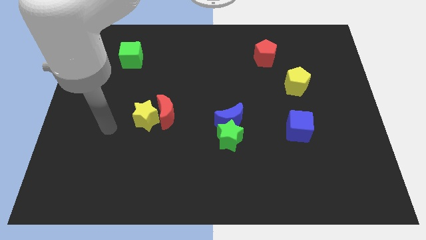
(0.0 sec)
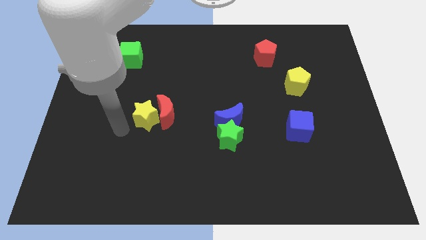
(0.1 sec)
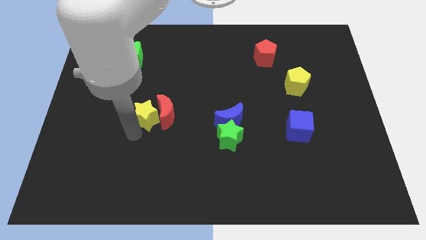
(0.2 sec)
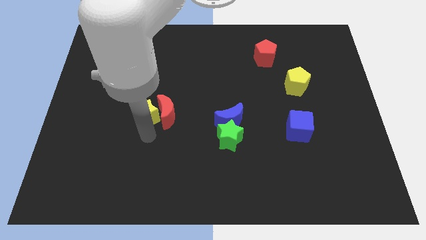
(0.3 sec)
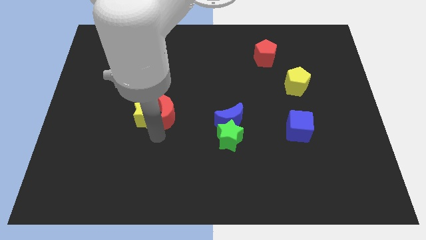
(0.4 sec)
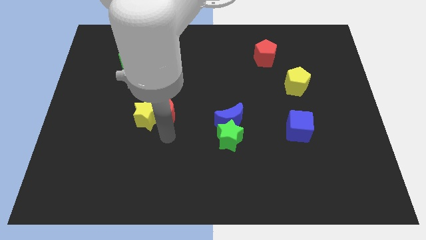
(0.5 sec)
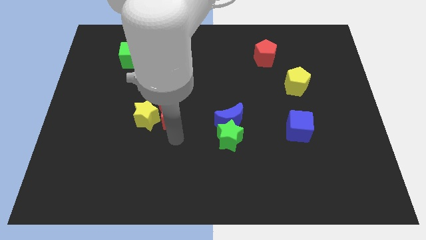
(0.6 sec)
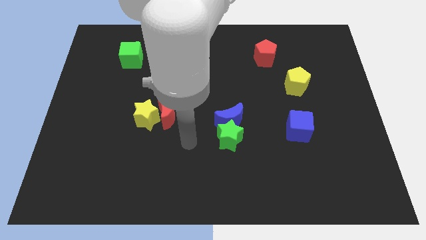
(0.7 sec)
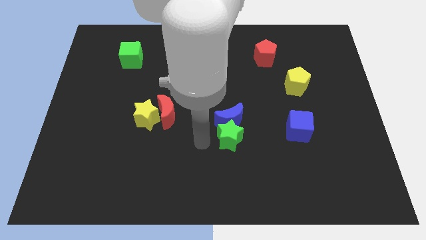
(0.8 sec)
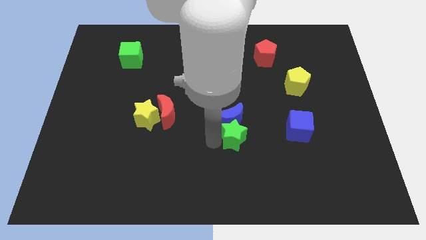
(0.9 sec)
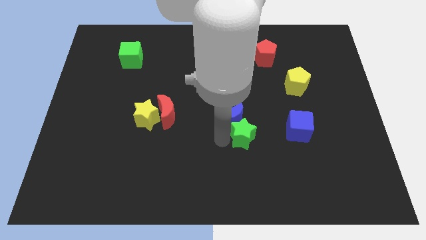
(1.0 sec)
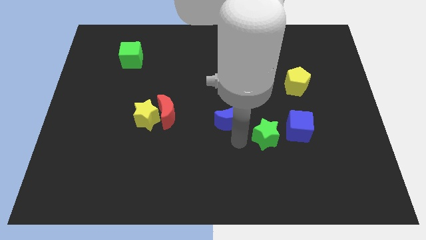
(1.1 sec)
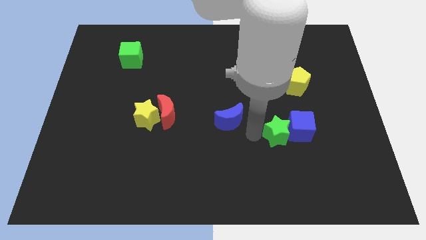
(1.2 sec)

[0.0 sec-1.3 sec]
separate the blue moon from the green star

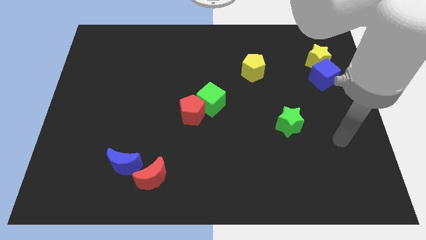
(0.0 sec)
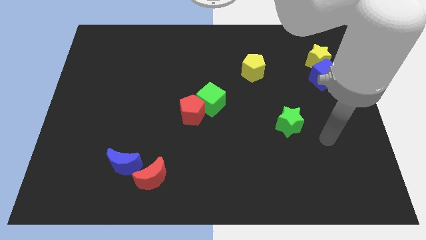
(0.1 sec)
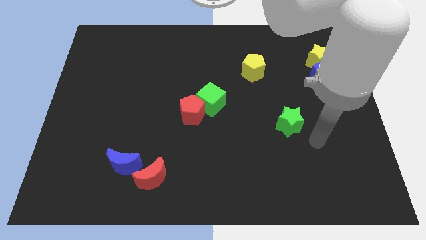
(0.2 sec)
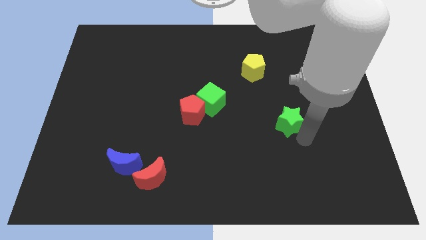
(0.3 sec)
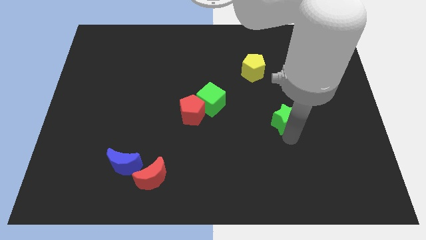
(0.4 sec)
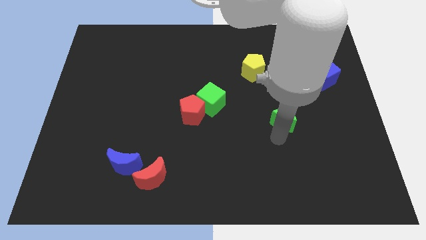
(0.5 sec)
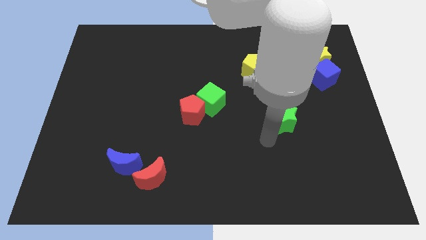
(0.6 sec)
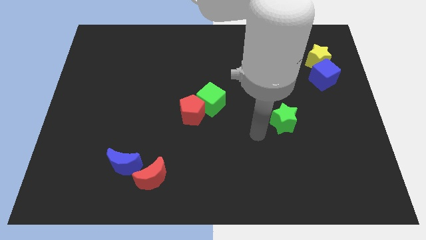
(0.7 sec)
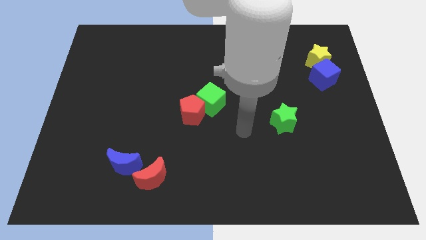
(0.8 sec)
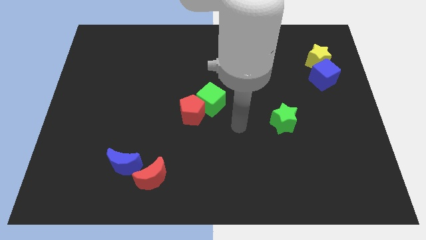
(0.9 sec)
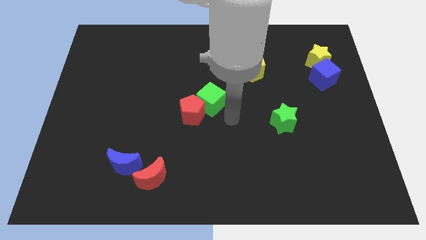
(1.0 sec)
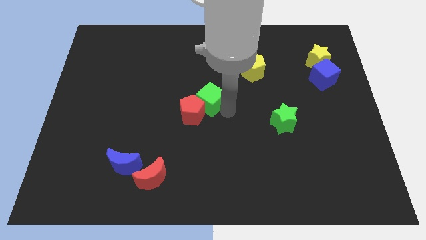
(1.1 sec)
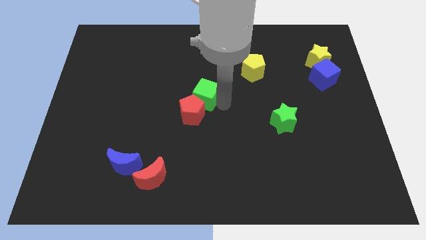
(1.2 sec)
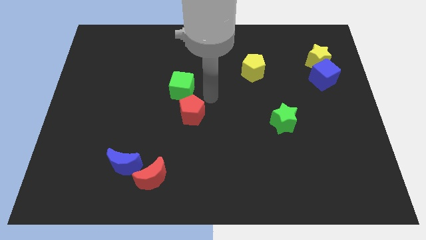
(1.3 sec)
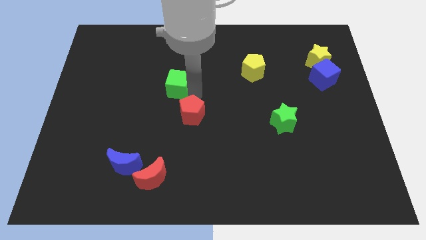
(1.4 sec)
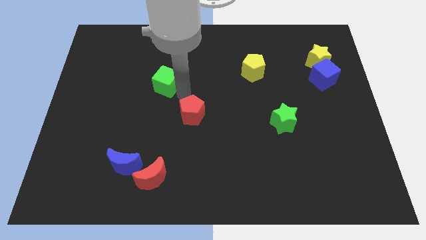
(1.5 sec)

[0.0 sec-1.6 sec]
pull the red pentagon apart from the green cube

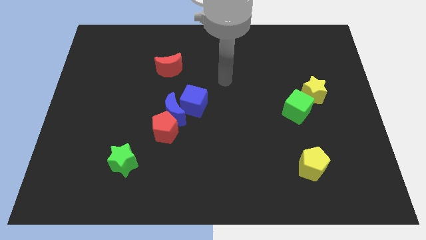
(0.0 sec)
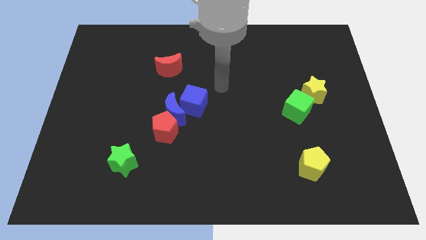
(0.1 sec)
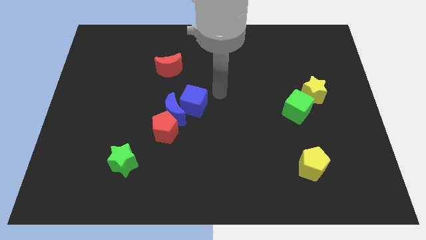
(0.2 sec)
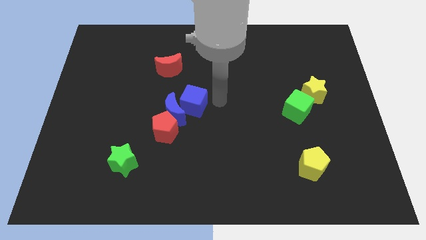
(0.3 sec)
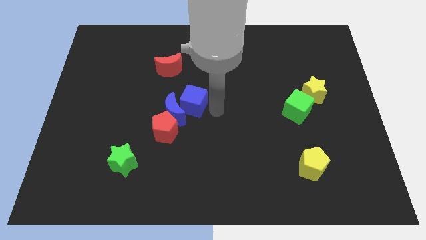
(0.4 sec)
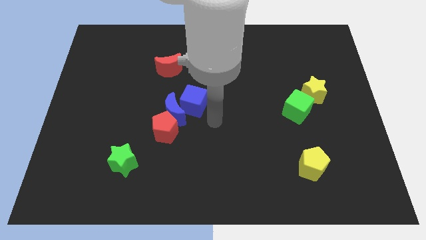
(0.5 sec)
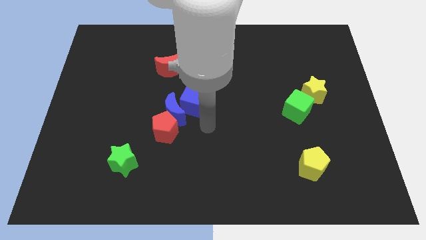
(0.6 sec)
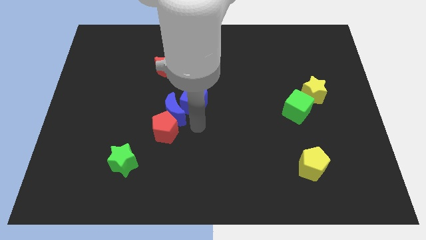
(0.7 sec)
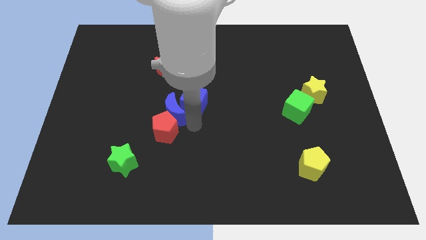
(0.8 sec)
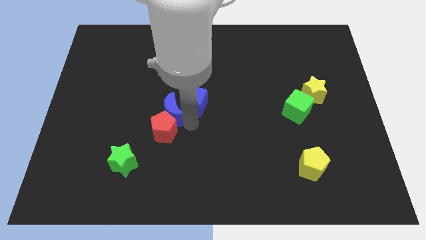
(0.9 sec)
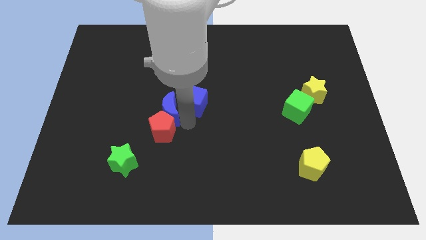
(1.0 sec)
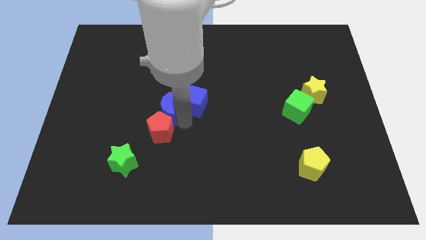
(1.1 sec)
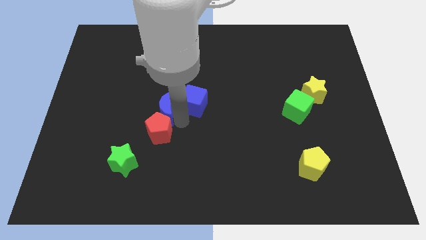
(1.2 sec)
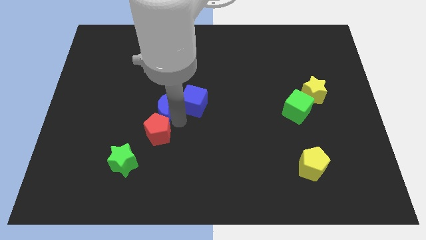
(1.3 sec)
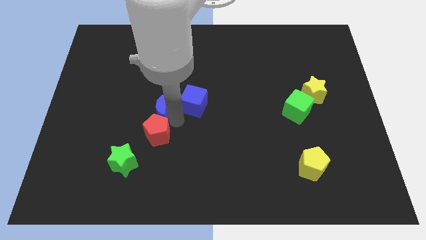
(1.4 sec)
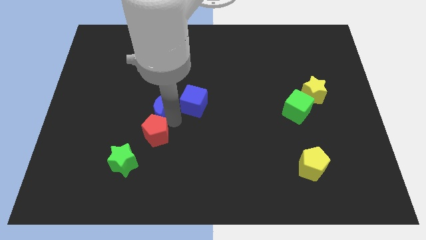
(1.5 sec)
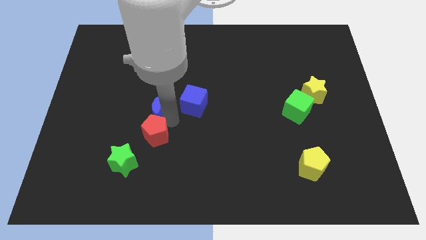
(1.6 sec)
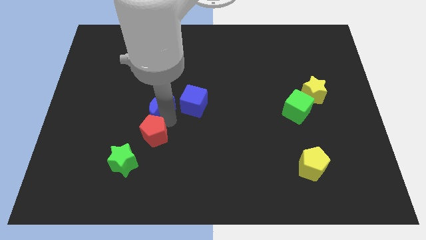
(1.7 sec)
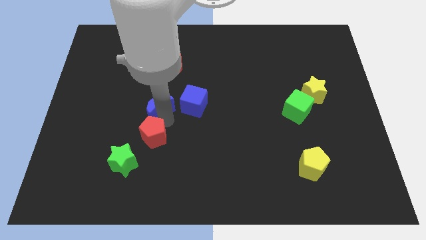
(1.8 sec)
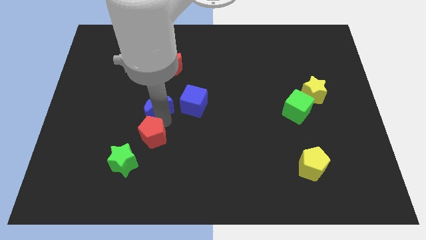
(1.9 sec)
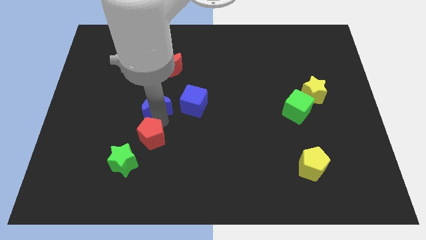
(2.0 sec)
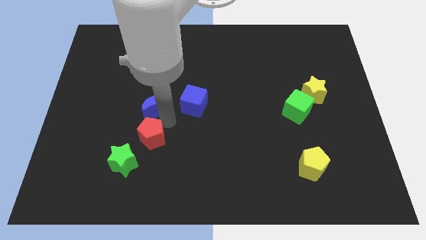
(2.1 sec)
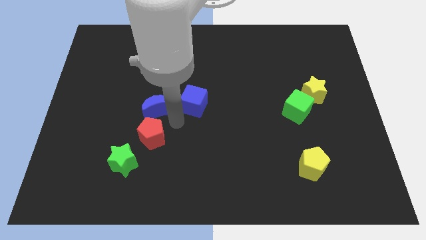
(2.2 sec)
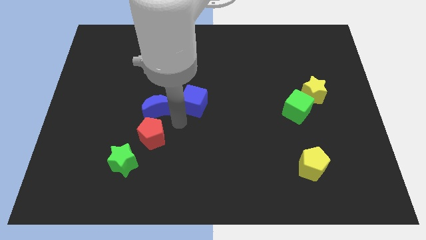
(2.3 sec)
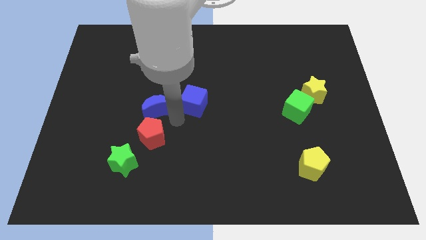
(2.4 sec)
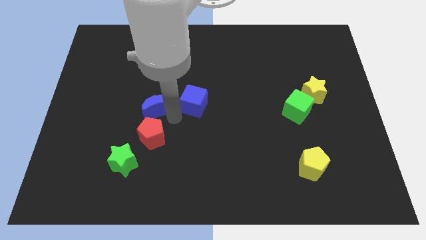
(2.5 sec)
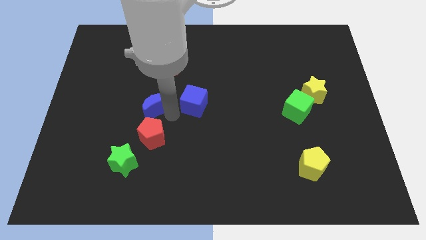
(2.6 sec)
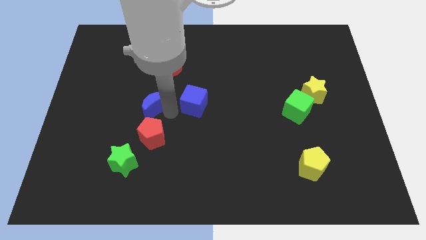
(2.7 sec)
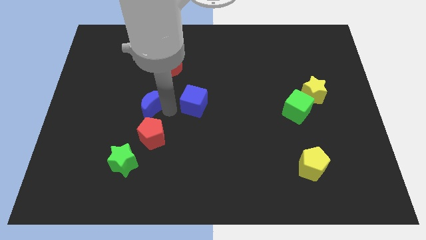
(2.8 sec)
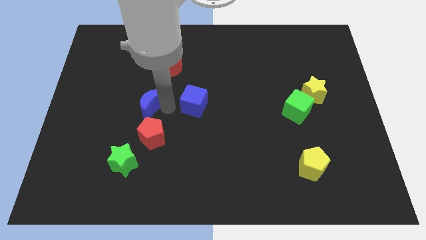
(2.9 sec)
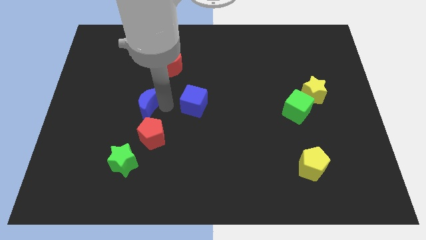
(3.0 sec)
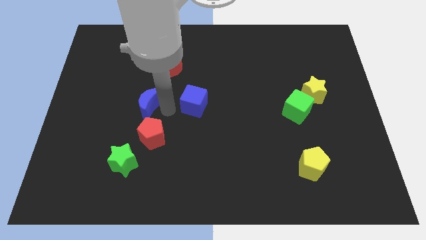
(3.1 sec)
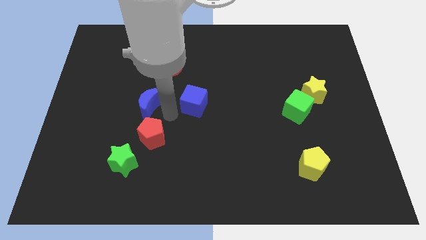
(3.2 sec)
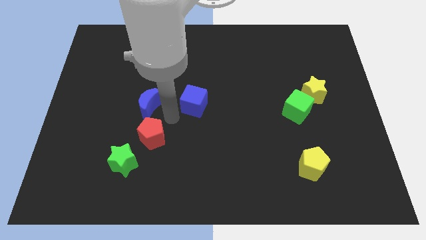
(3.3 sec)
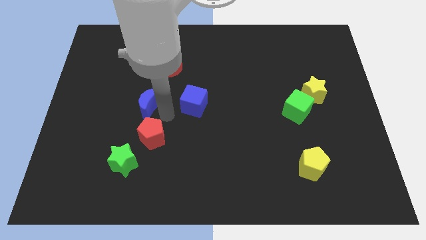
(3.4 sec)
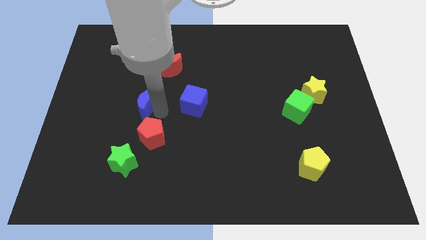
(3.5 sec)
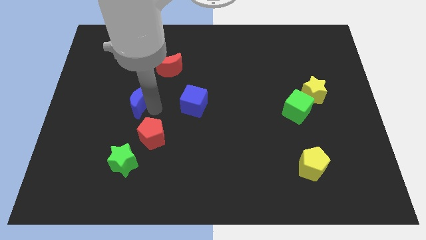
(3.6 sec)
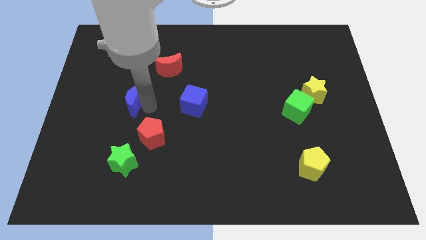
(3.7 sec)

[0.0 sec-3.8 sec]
pull the blue moon apart from the red pentagon and blue cube

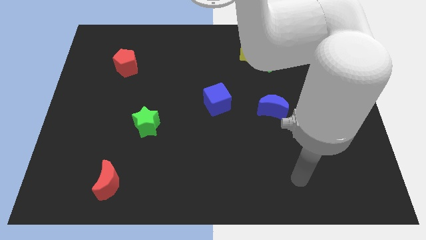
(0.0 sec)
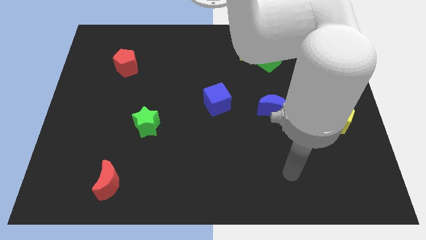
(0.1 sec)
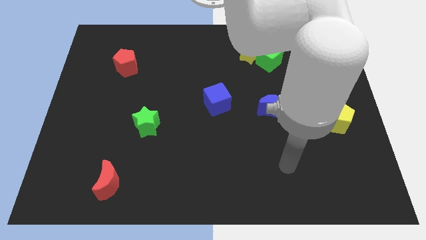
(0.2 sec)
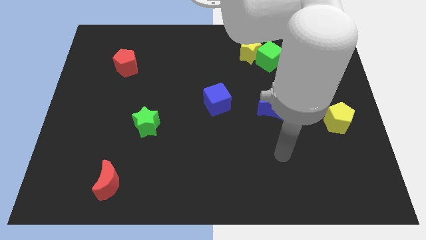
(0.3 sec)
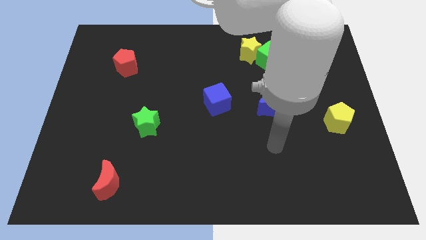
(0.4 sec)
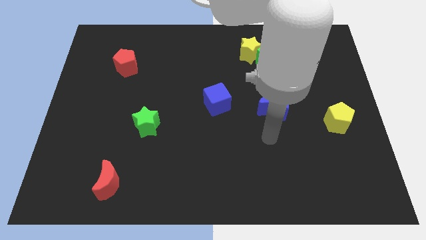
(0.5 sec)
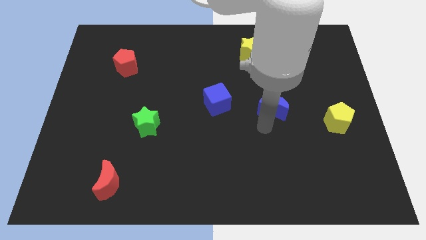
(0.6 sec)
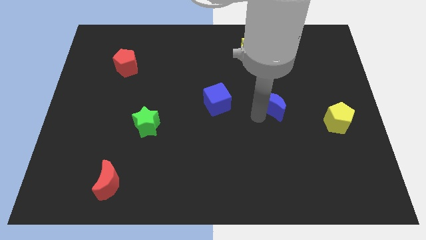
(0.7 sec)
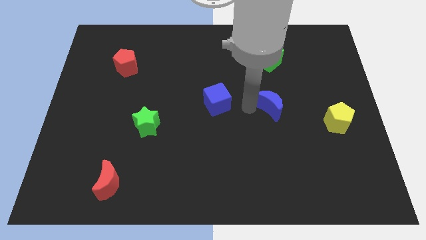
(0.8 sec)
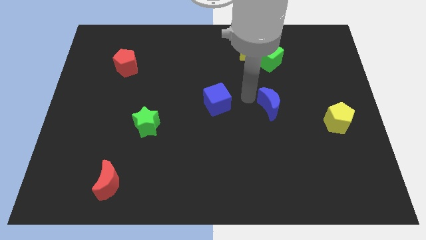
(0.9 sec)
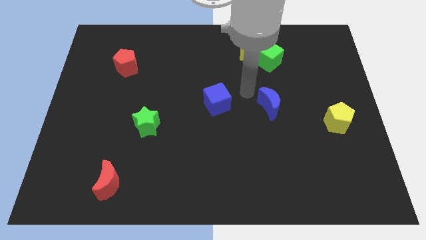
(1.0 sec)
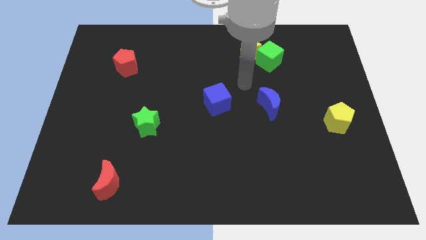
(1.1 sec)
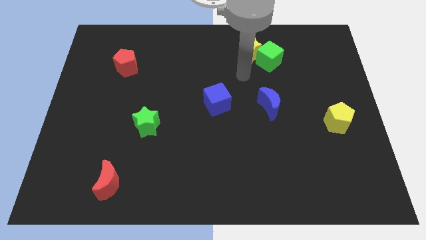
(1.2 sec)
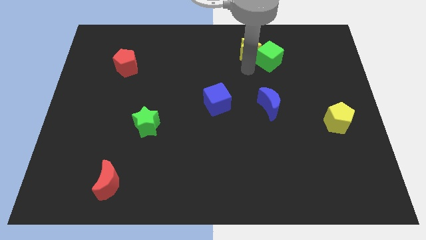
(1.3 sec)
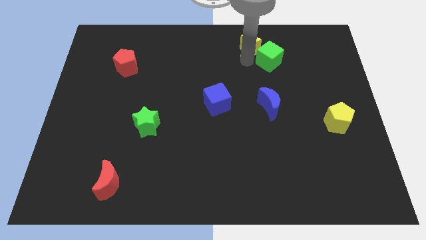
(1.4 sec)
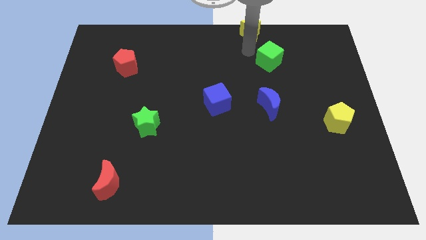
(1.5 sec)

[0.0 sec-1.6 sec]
pull the green cube apart from the yellow star

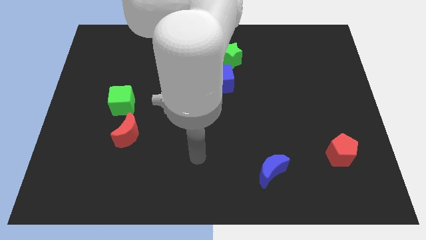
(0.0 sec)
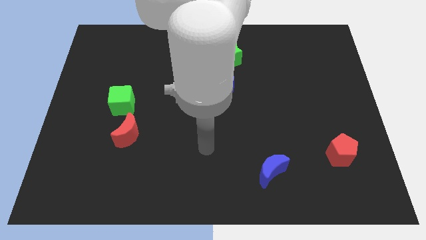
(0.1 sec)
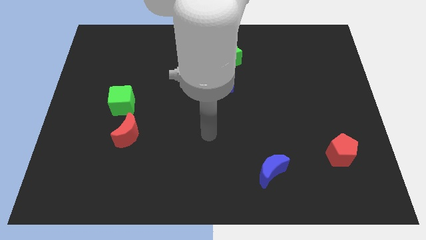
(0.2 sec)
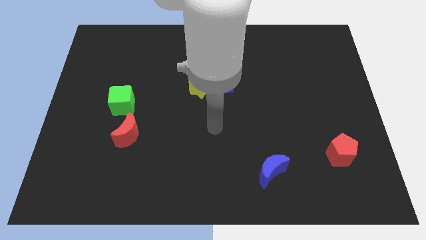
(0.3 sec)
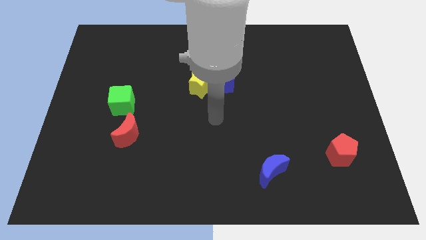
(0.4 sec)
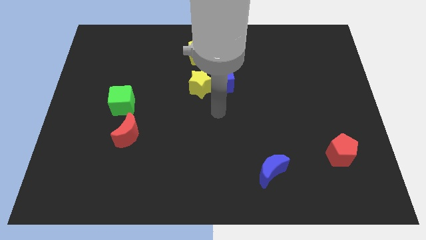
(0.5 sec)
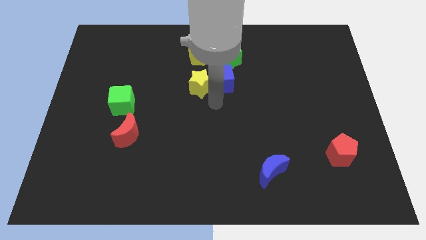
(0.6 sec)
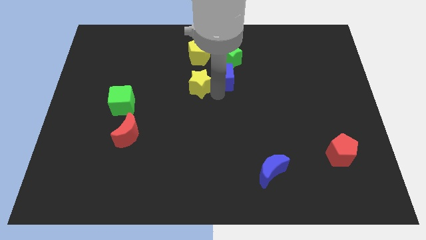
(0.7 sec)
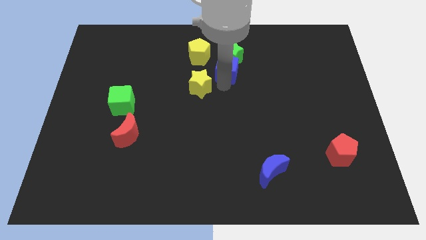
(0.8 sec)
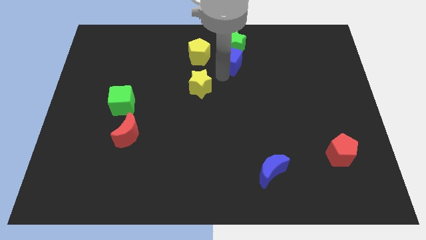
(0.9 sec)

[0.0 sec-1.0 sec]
pull the yellow star apart from the blue cube

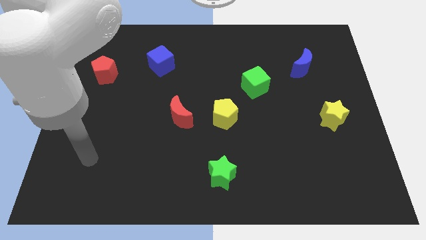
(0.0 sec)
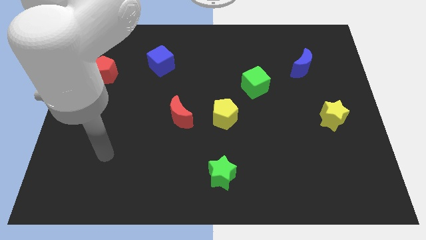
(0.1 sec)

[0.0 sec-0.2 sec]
pull the red moon apart from the yellow pentagon
